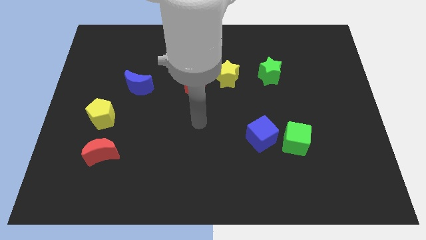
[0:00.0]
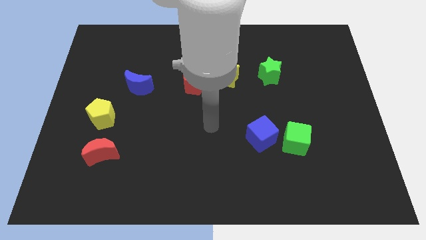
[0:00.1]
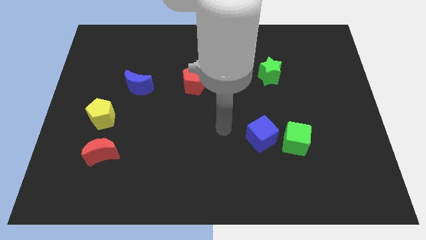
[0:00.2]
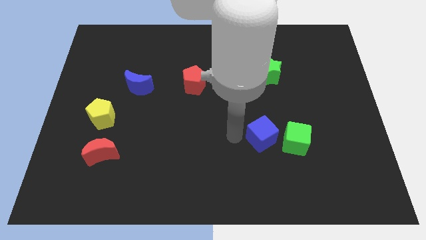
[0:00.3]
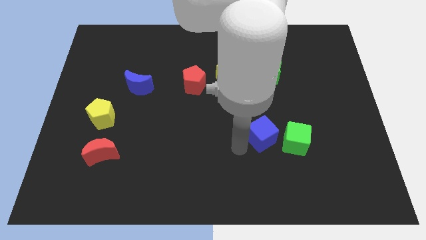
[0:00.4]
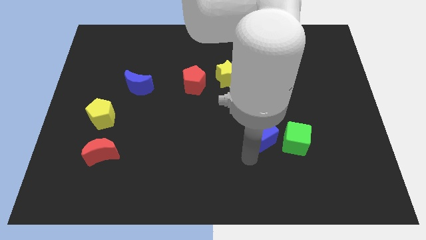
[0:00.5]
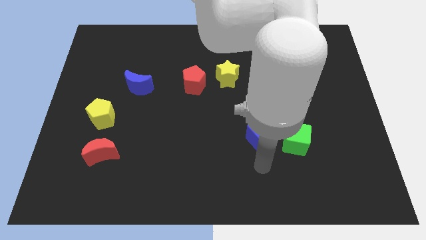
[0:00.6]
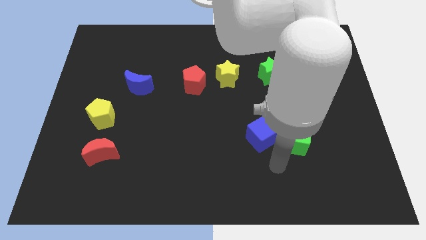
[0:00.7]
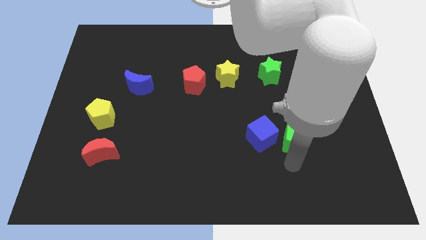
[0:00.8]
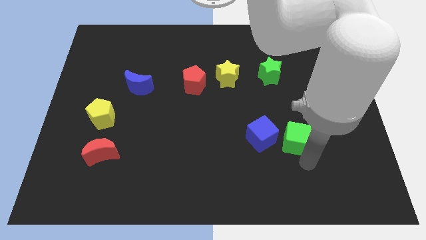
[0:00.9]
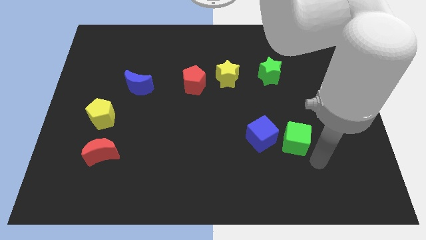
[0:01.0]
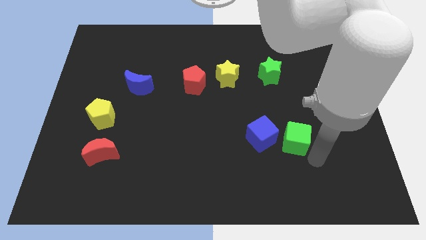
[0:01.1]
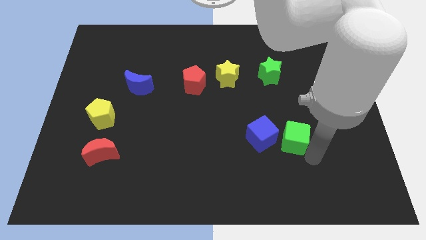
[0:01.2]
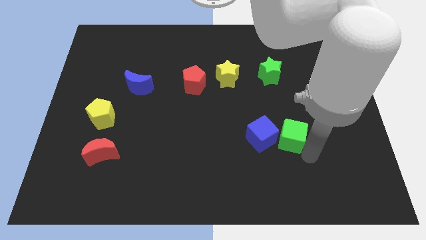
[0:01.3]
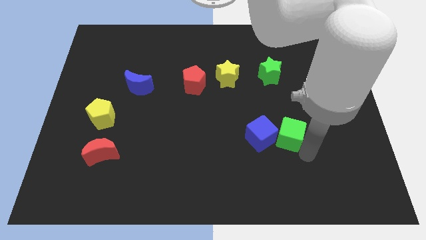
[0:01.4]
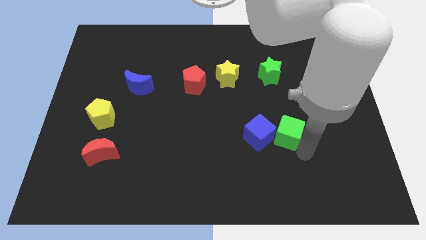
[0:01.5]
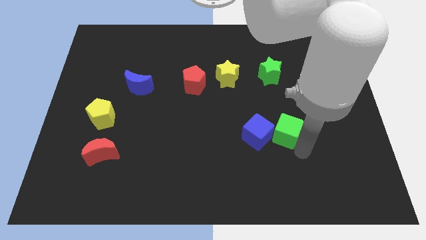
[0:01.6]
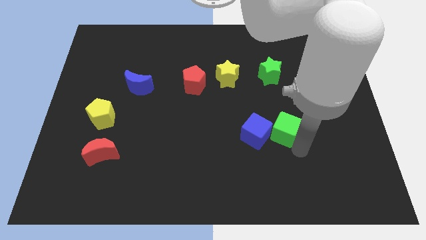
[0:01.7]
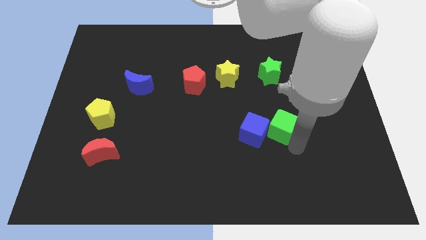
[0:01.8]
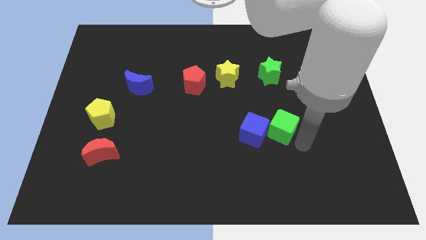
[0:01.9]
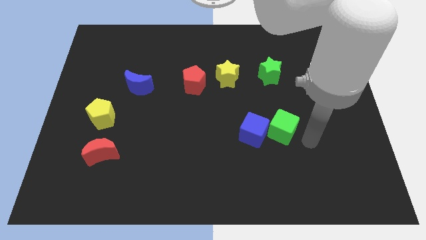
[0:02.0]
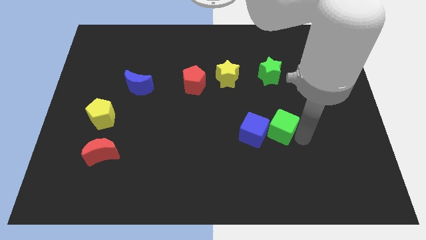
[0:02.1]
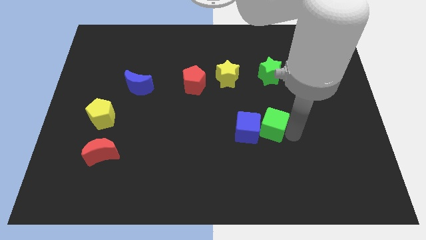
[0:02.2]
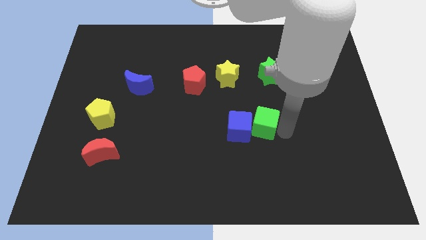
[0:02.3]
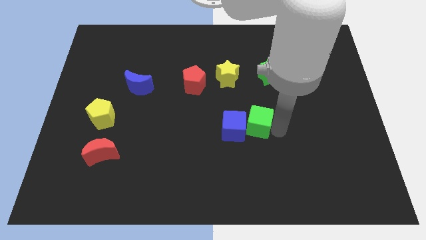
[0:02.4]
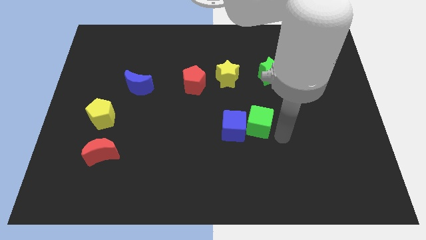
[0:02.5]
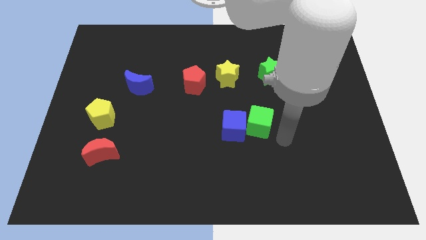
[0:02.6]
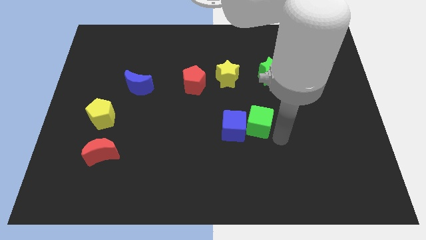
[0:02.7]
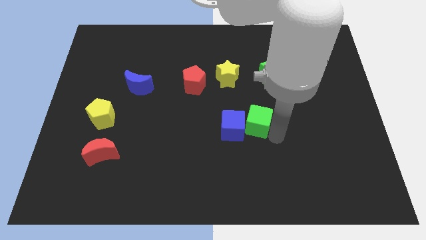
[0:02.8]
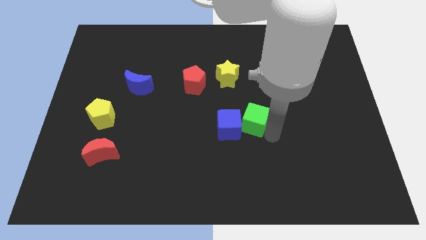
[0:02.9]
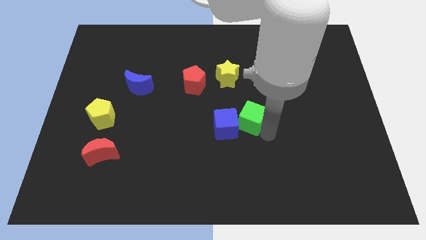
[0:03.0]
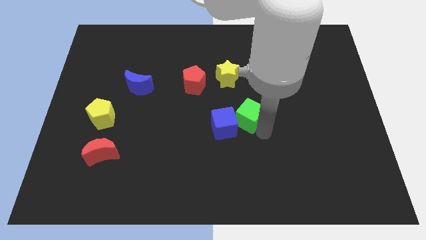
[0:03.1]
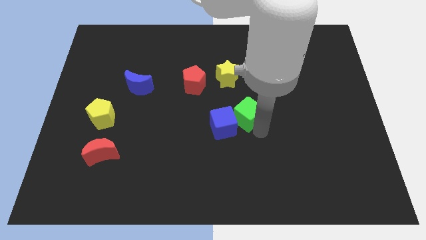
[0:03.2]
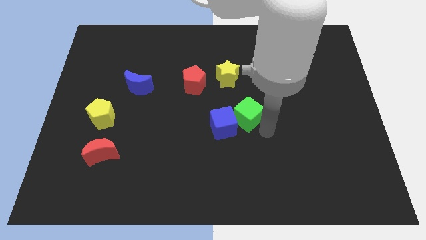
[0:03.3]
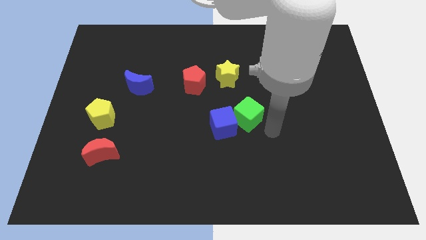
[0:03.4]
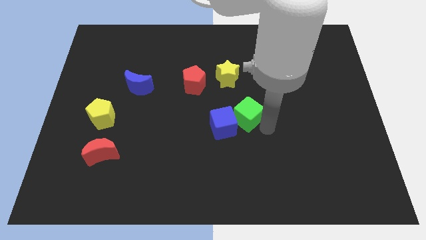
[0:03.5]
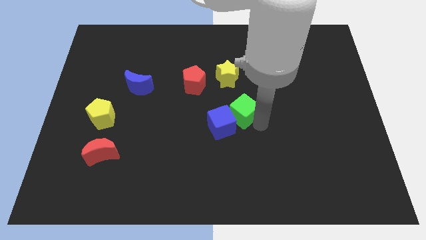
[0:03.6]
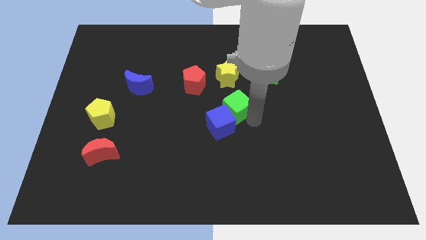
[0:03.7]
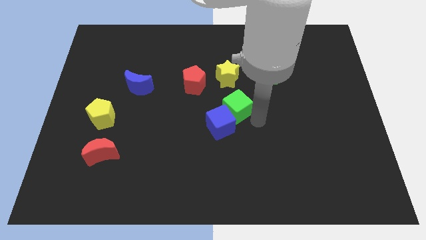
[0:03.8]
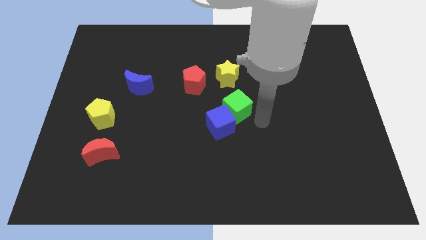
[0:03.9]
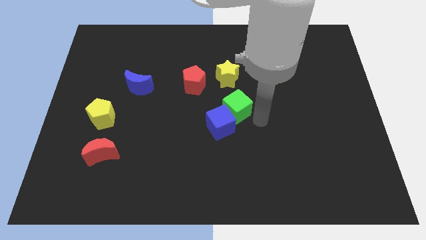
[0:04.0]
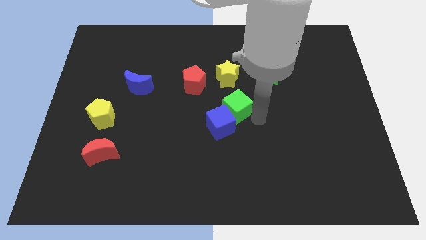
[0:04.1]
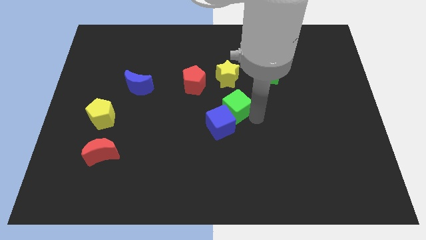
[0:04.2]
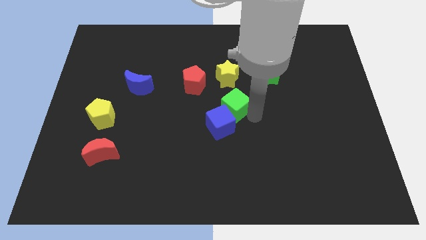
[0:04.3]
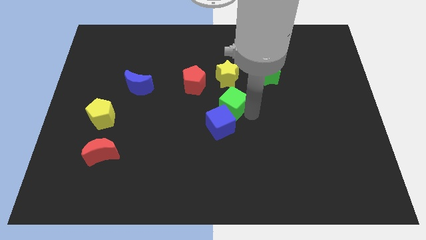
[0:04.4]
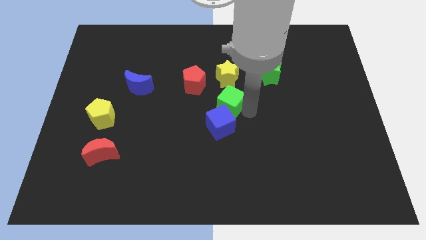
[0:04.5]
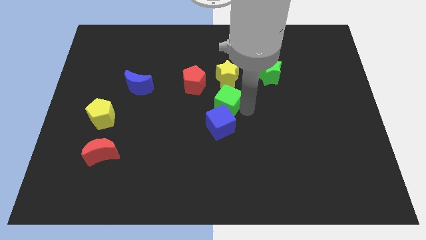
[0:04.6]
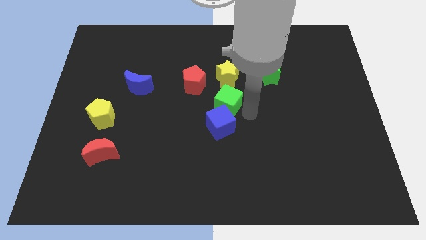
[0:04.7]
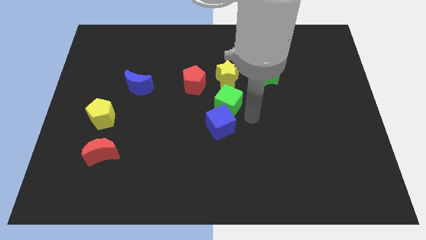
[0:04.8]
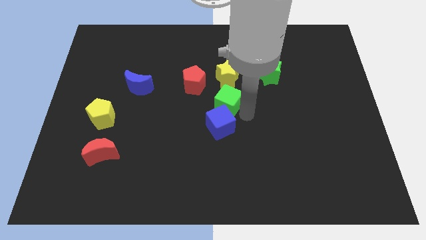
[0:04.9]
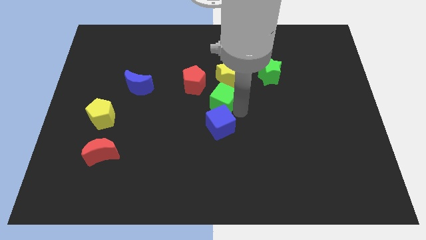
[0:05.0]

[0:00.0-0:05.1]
slide the green cube diagonally down and to the left of the yellow star

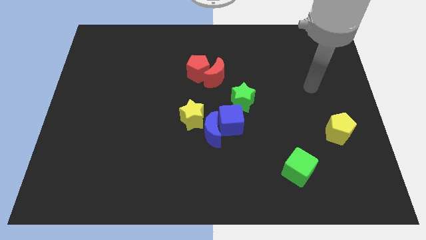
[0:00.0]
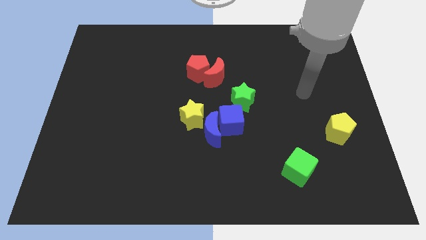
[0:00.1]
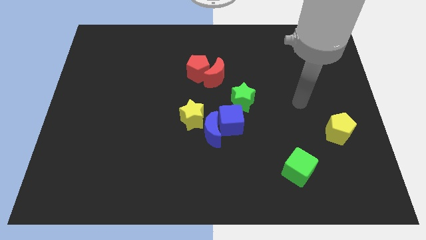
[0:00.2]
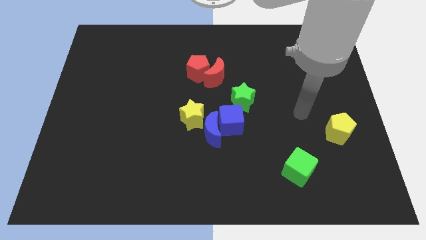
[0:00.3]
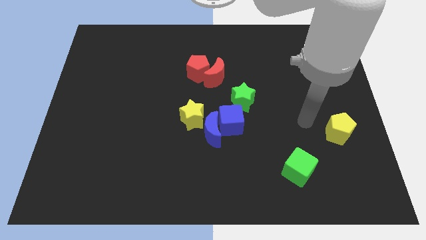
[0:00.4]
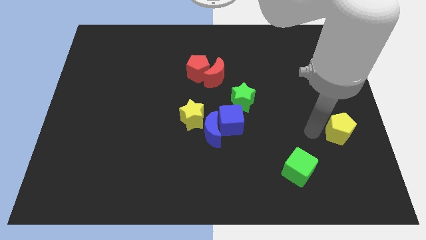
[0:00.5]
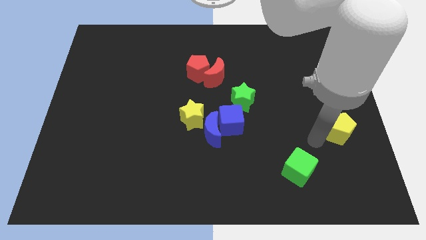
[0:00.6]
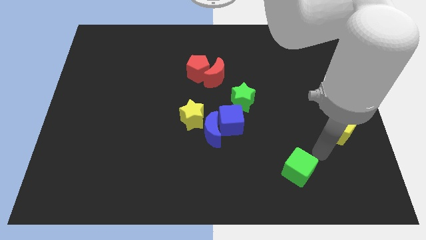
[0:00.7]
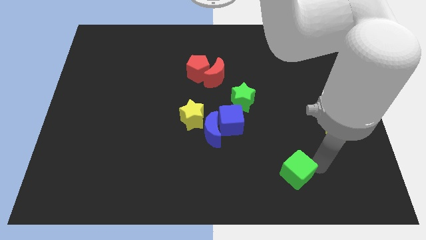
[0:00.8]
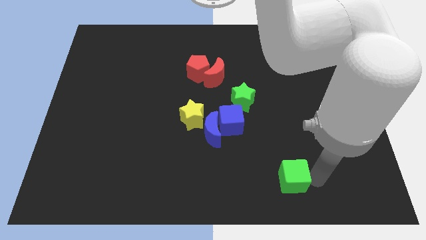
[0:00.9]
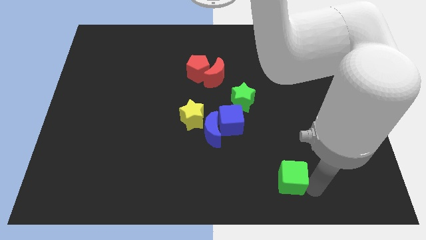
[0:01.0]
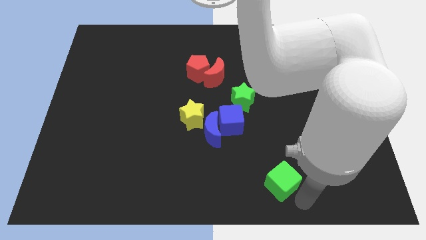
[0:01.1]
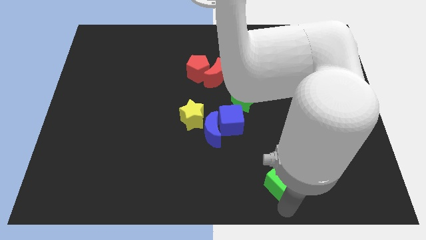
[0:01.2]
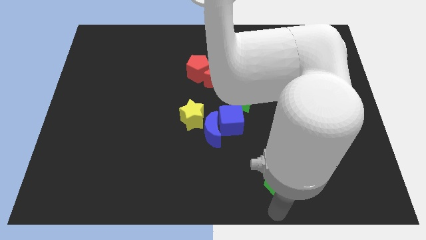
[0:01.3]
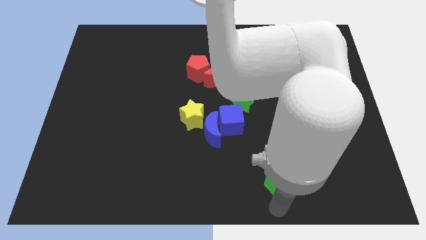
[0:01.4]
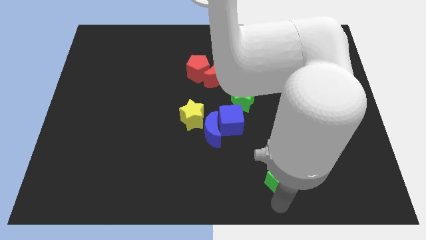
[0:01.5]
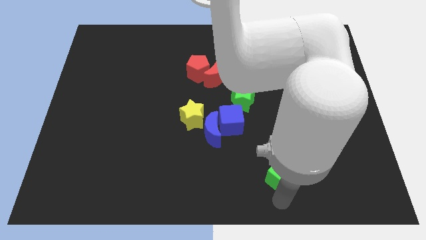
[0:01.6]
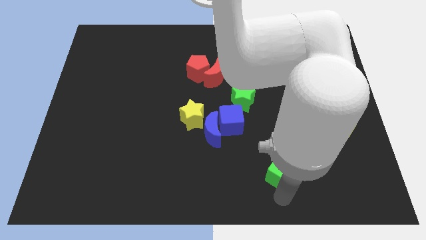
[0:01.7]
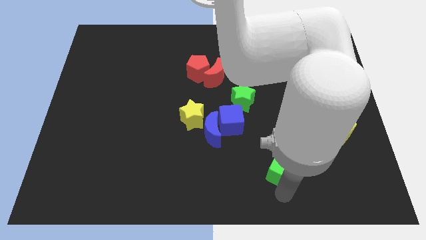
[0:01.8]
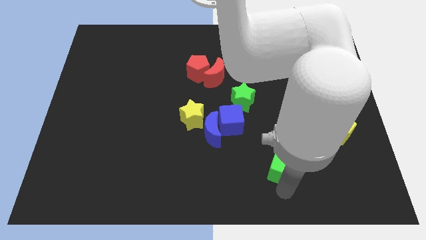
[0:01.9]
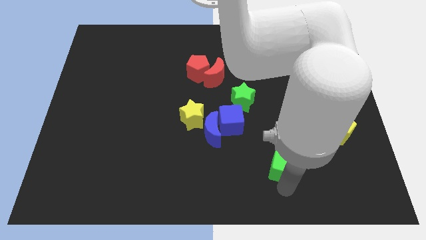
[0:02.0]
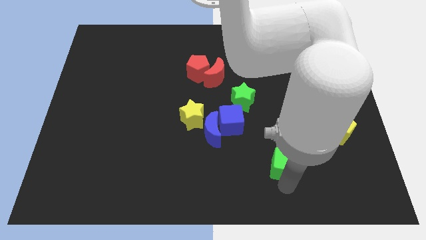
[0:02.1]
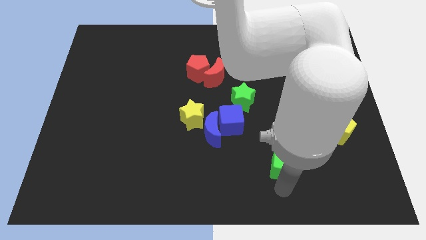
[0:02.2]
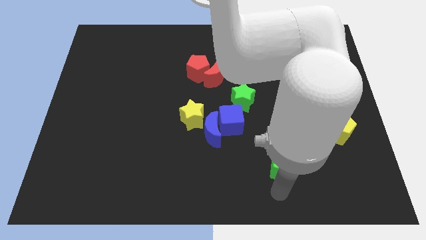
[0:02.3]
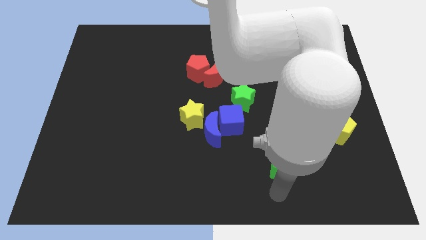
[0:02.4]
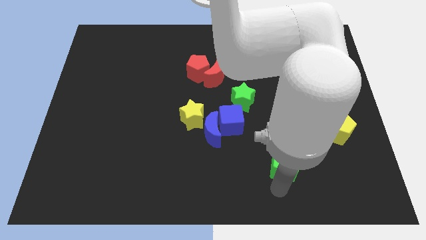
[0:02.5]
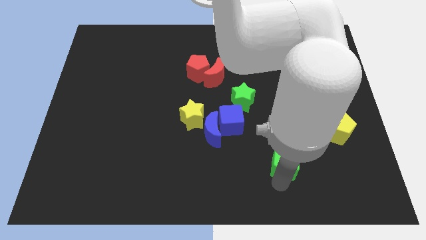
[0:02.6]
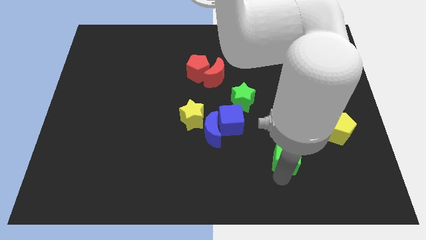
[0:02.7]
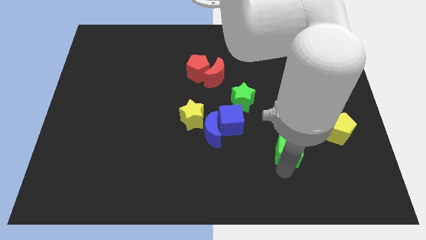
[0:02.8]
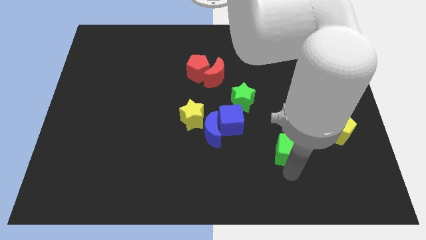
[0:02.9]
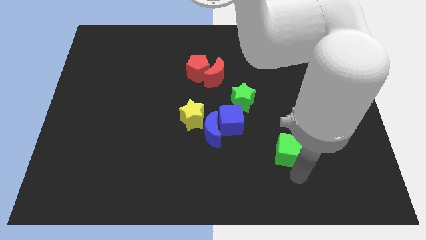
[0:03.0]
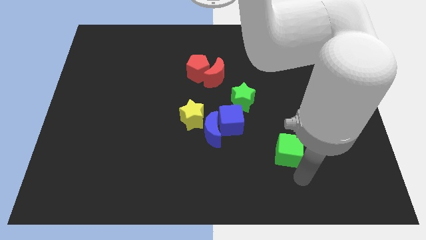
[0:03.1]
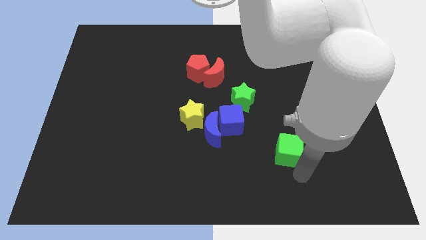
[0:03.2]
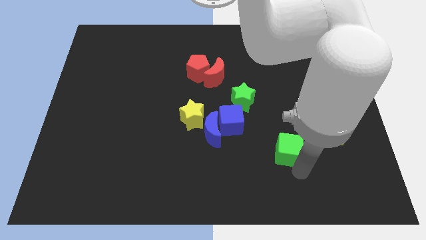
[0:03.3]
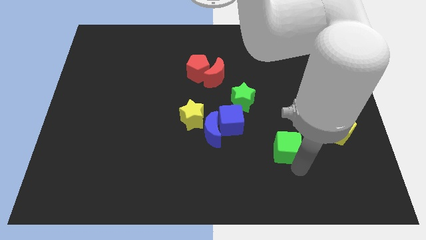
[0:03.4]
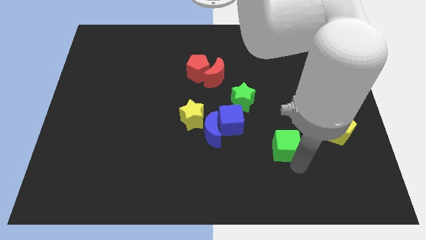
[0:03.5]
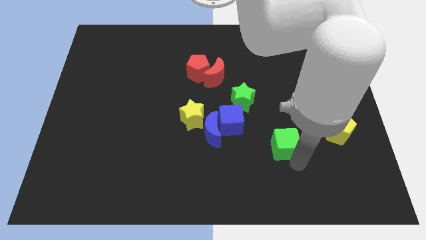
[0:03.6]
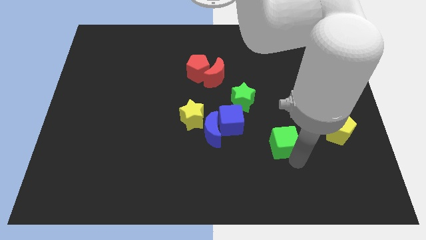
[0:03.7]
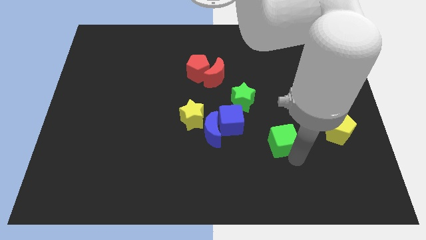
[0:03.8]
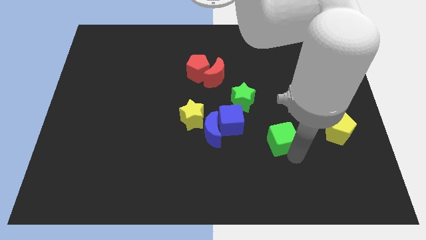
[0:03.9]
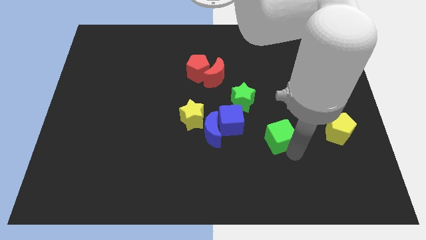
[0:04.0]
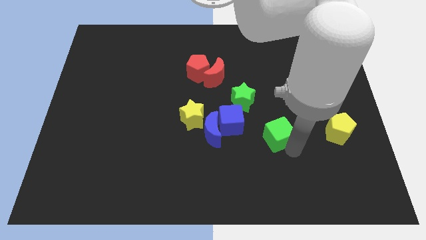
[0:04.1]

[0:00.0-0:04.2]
move the green cube to the bottom right of the green star
